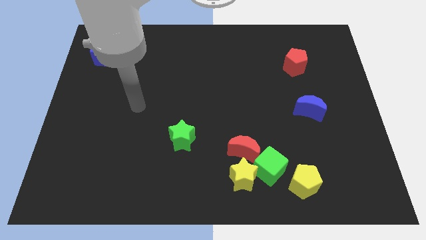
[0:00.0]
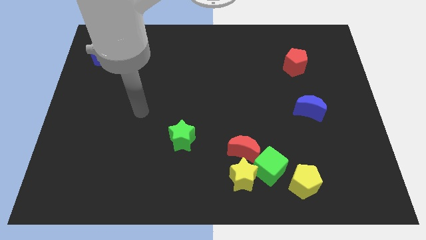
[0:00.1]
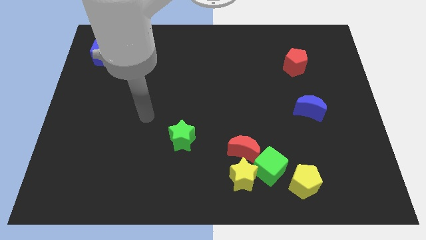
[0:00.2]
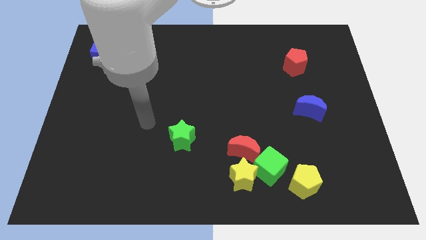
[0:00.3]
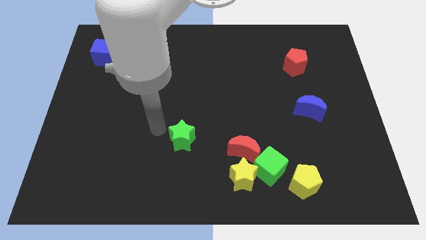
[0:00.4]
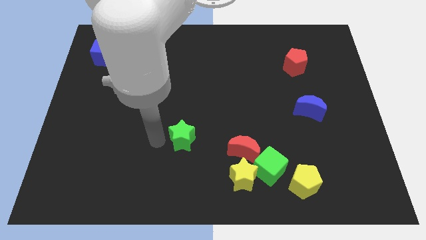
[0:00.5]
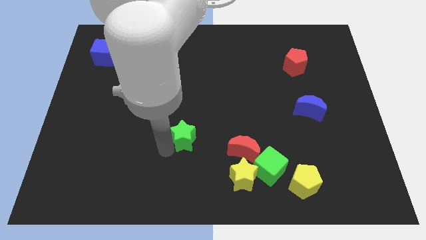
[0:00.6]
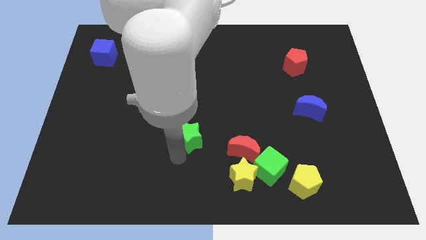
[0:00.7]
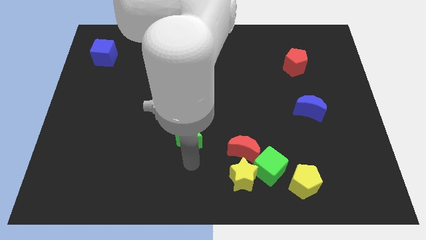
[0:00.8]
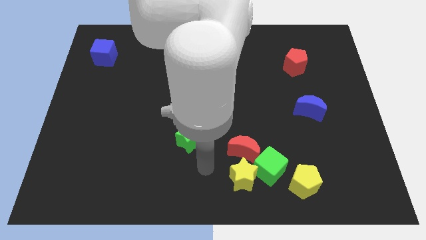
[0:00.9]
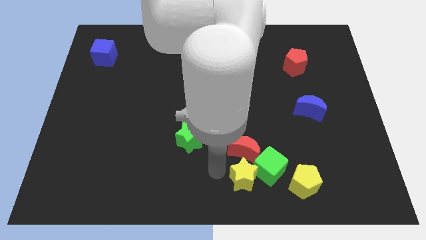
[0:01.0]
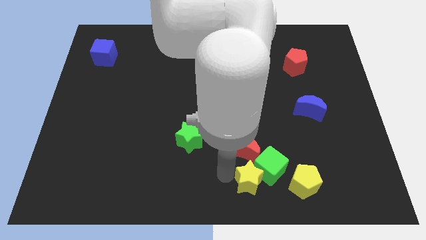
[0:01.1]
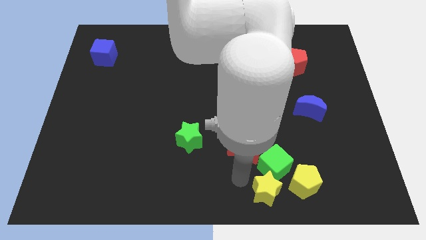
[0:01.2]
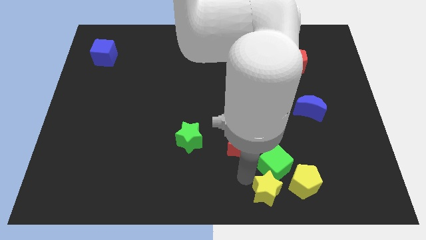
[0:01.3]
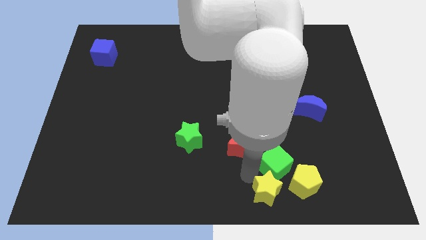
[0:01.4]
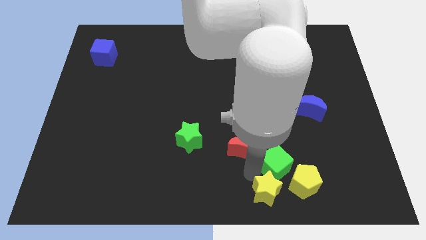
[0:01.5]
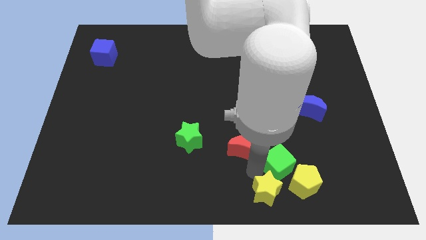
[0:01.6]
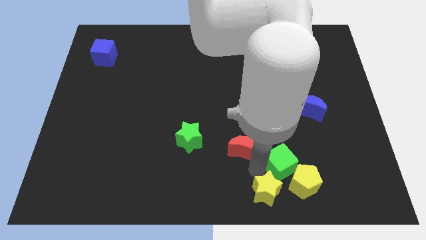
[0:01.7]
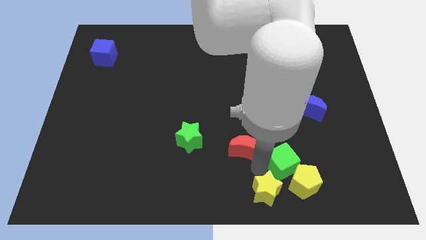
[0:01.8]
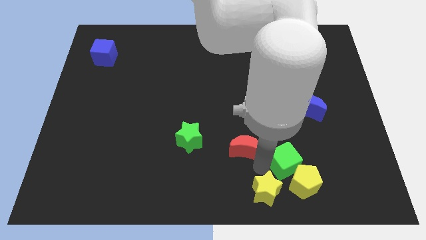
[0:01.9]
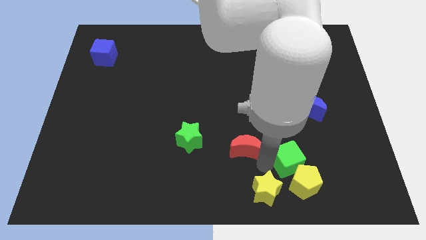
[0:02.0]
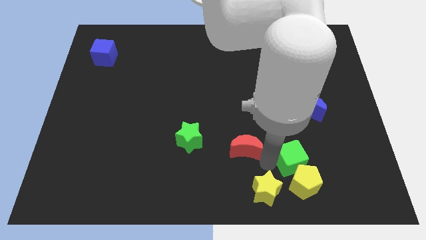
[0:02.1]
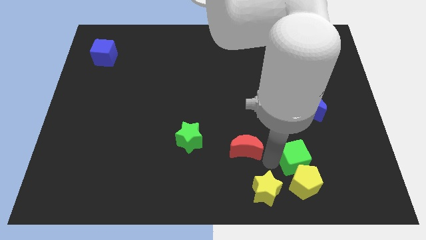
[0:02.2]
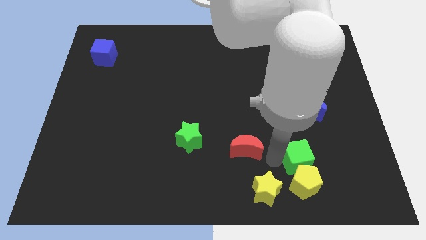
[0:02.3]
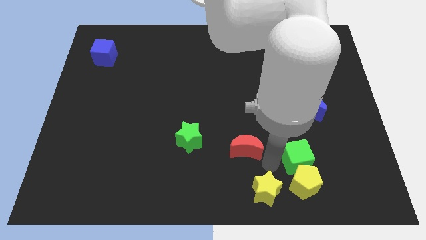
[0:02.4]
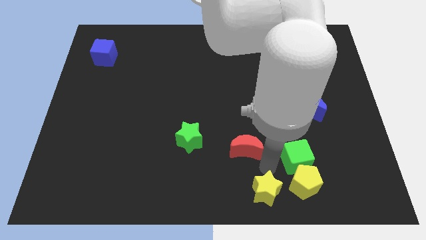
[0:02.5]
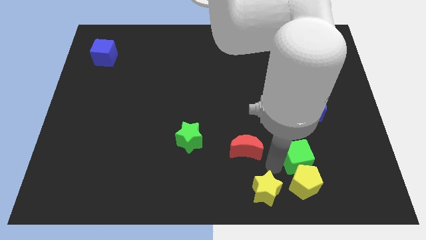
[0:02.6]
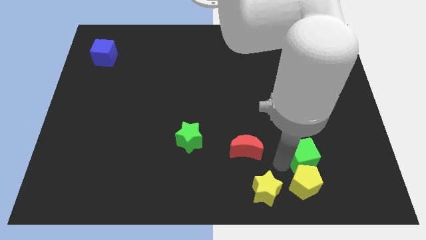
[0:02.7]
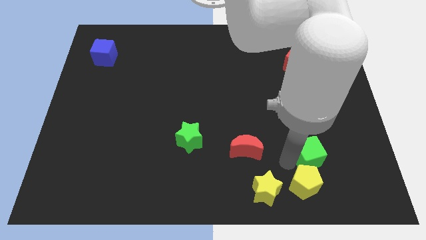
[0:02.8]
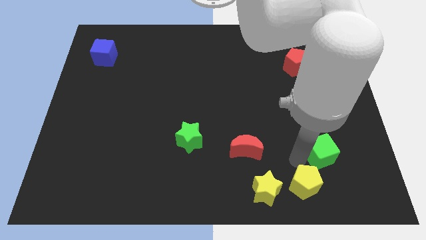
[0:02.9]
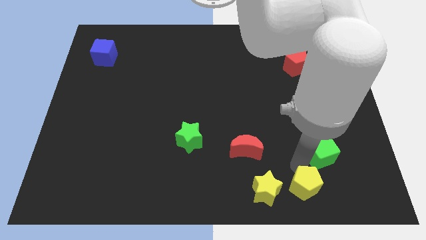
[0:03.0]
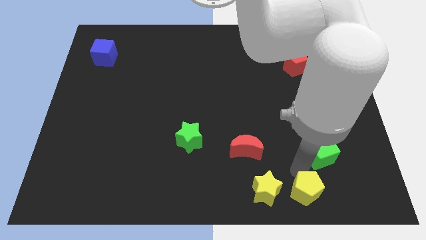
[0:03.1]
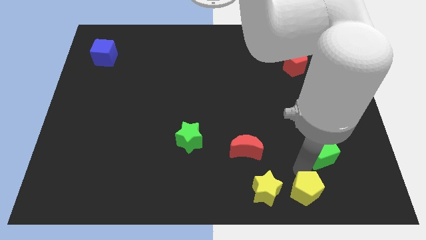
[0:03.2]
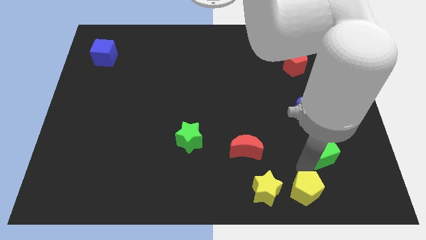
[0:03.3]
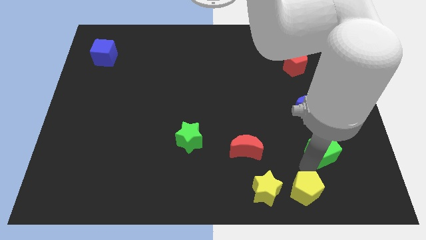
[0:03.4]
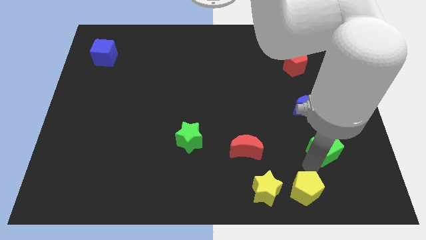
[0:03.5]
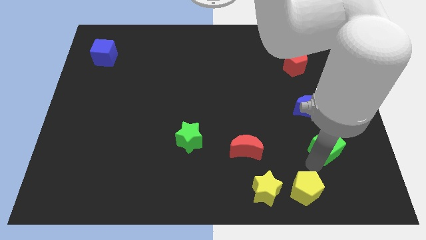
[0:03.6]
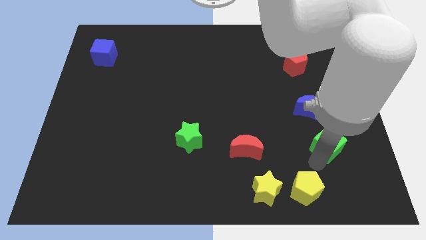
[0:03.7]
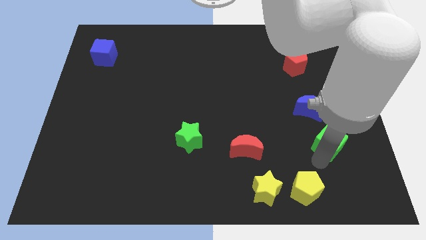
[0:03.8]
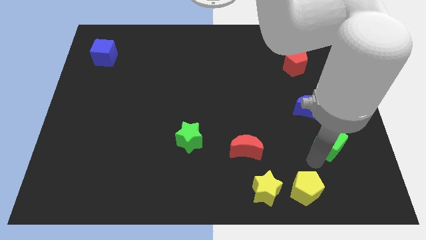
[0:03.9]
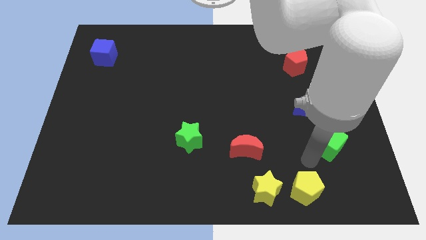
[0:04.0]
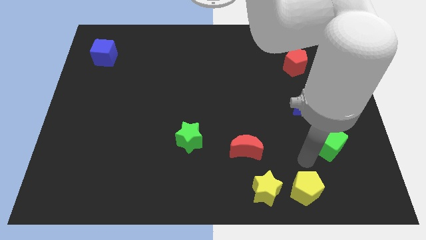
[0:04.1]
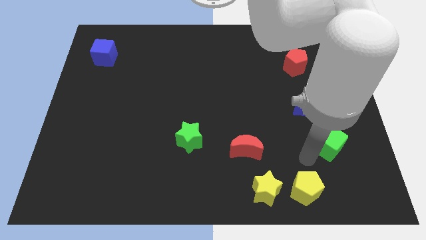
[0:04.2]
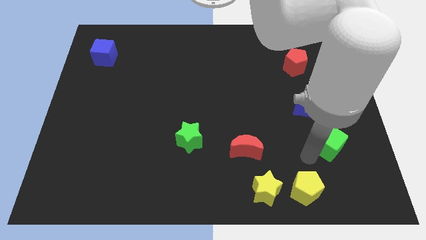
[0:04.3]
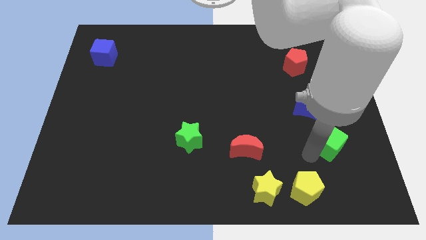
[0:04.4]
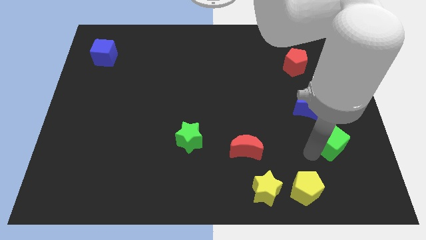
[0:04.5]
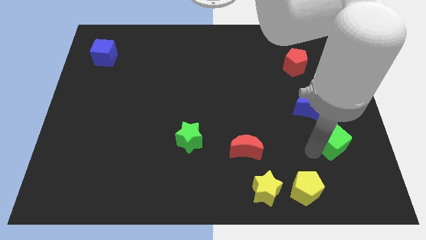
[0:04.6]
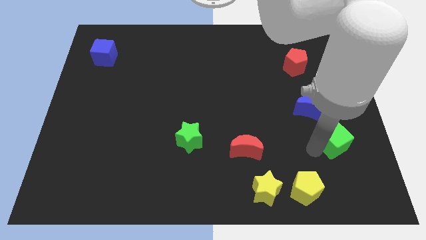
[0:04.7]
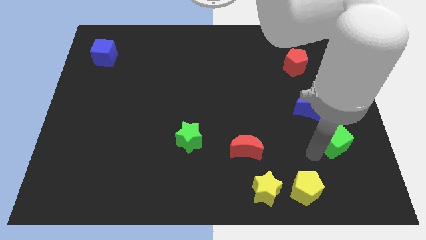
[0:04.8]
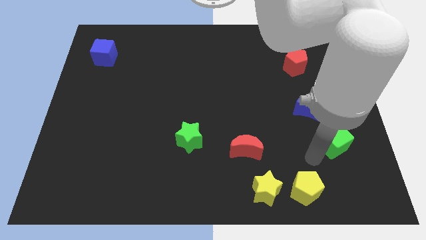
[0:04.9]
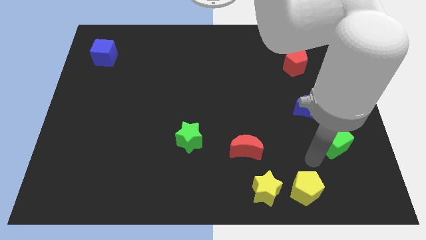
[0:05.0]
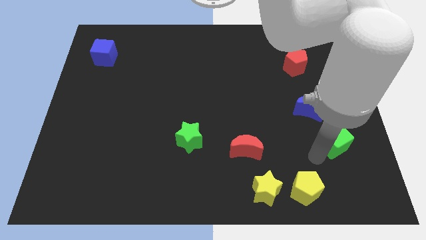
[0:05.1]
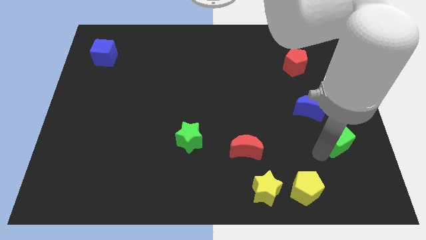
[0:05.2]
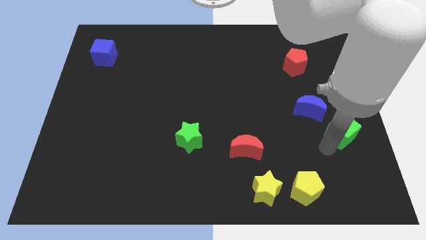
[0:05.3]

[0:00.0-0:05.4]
put the green cube to the right side
